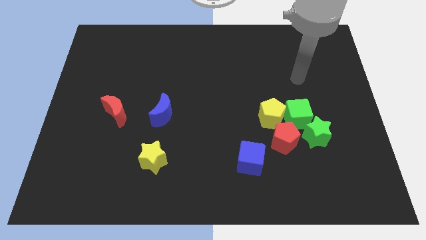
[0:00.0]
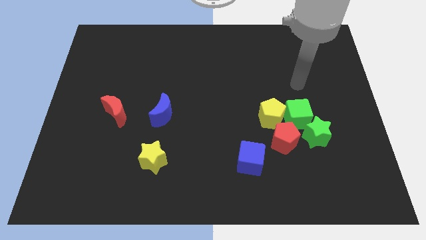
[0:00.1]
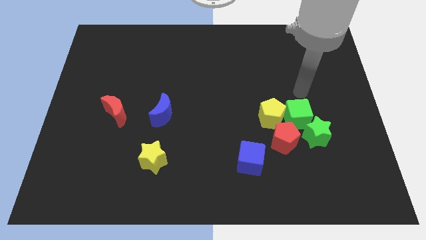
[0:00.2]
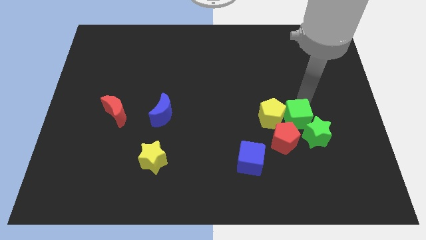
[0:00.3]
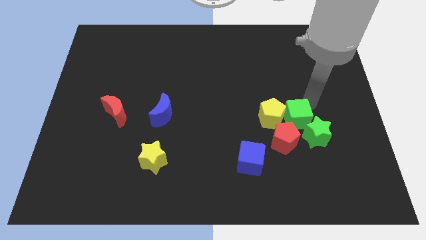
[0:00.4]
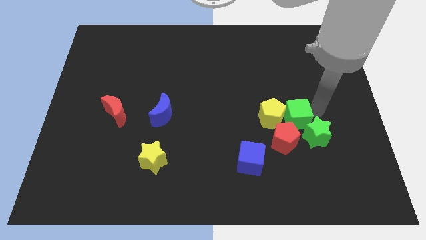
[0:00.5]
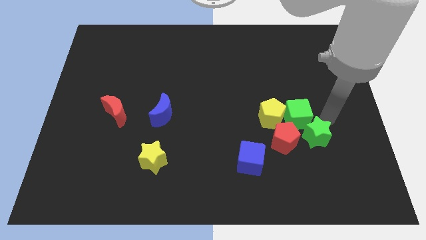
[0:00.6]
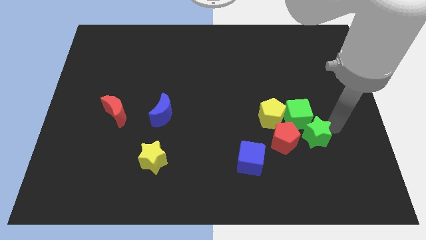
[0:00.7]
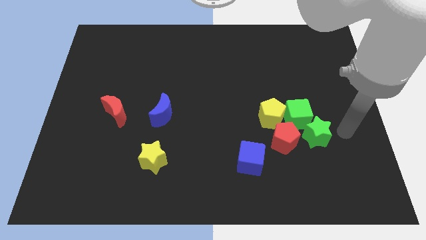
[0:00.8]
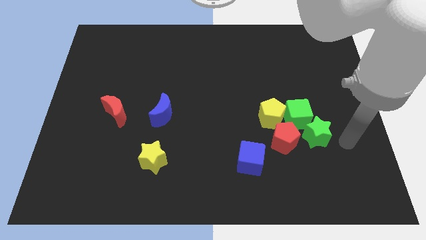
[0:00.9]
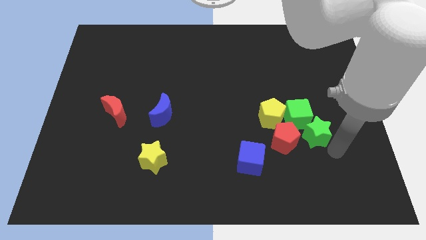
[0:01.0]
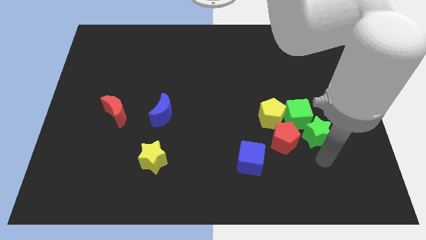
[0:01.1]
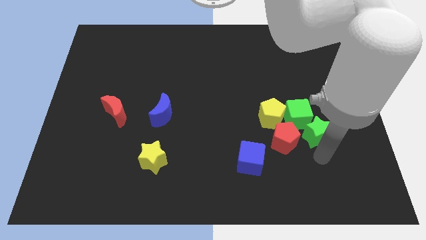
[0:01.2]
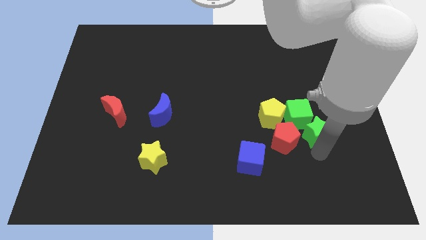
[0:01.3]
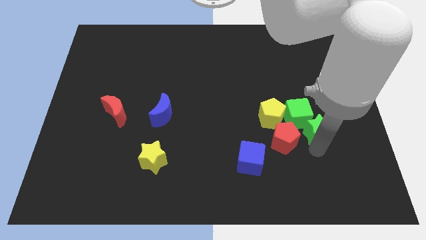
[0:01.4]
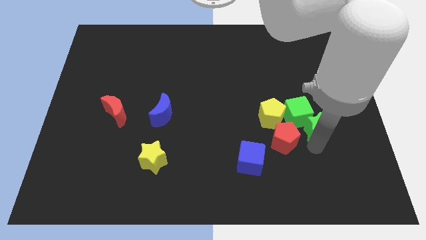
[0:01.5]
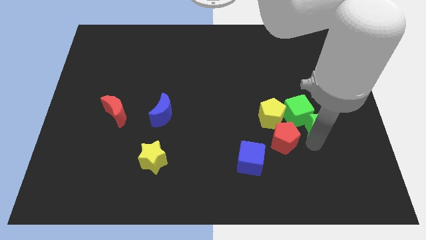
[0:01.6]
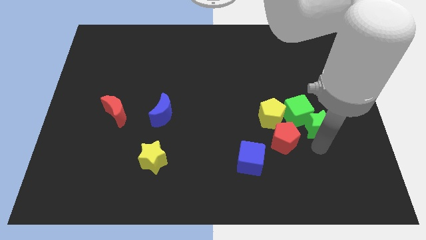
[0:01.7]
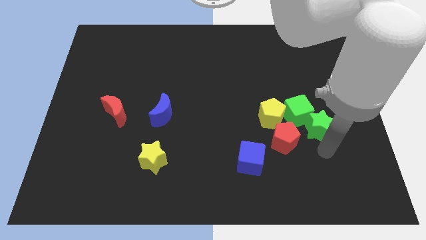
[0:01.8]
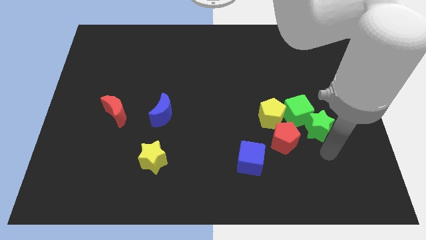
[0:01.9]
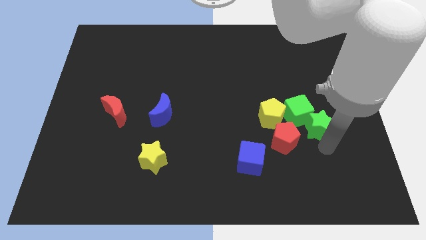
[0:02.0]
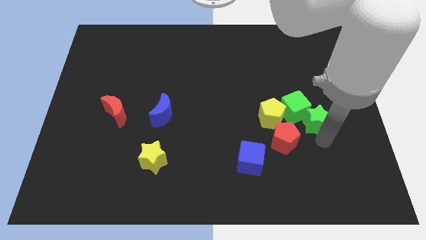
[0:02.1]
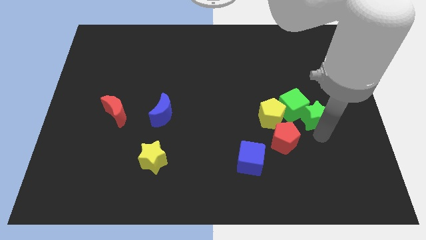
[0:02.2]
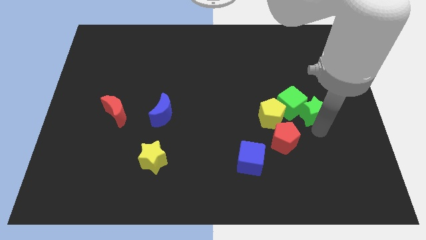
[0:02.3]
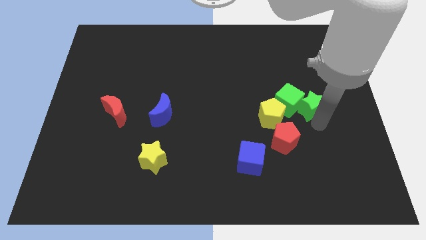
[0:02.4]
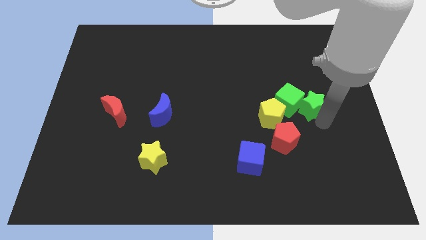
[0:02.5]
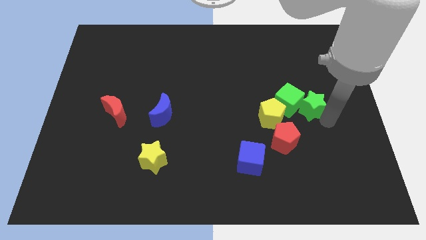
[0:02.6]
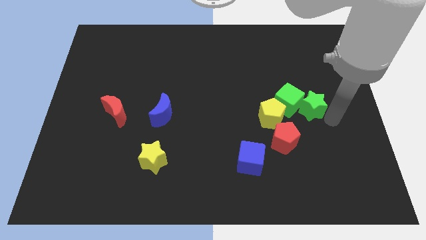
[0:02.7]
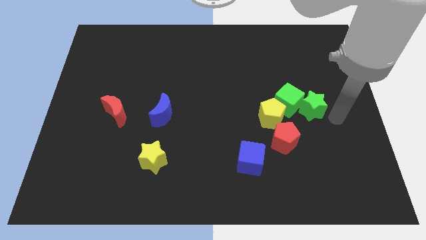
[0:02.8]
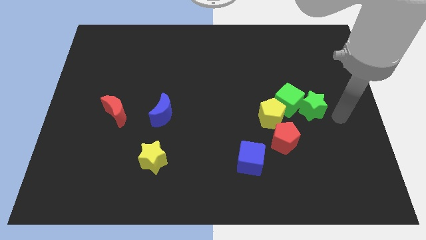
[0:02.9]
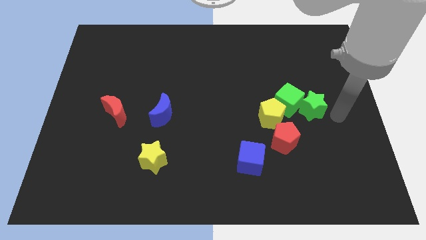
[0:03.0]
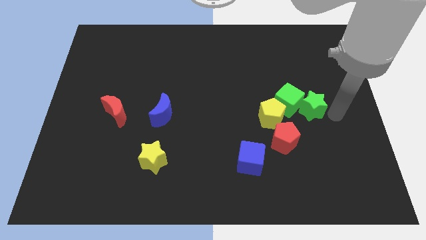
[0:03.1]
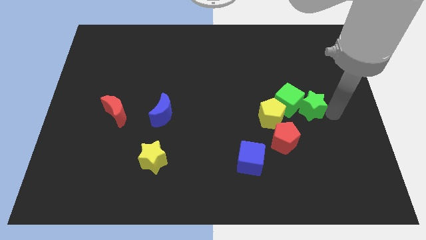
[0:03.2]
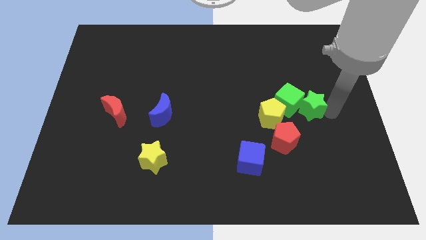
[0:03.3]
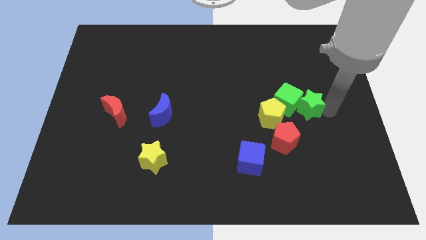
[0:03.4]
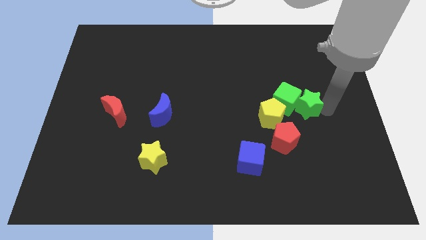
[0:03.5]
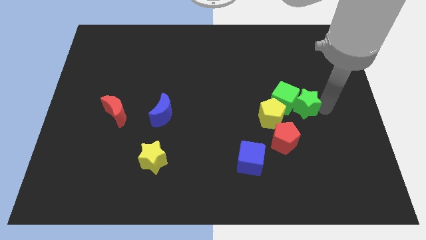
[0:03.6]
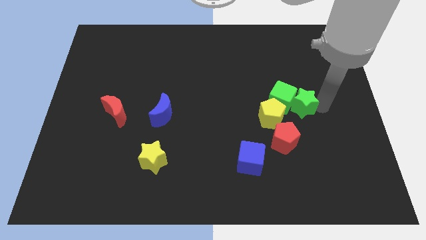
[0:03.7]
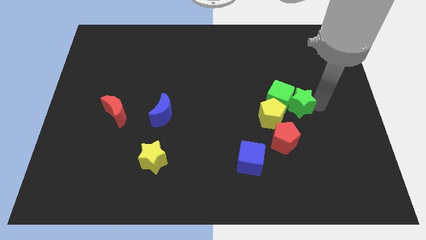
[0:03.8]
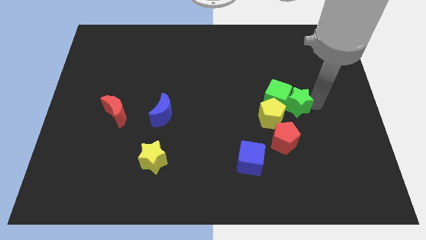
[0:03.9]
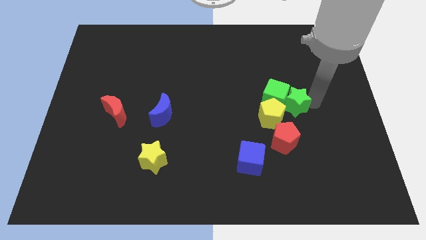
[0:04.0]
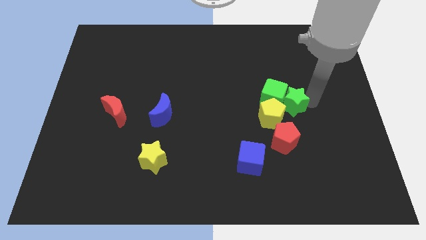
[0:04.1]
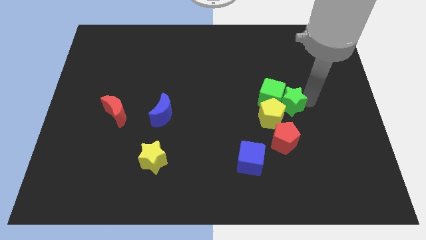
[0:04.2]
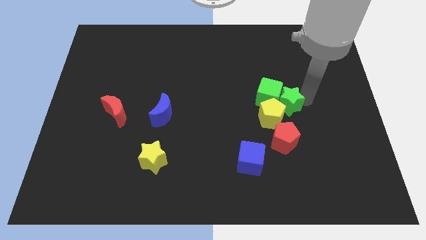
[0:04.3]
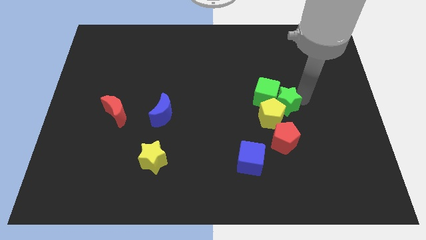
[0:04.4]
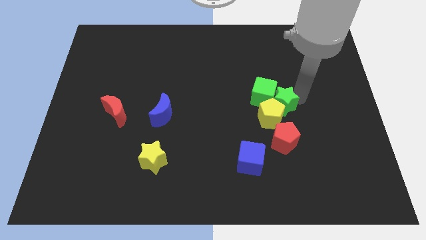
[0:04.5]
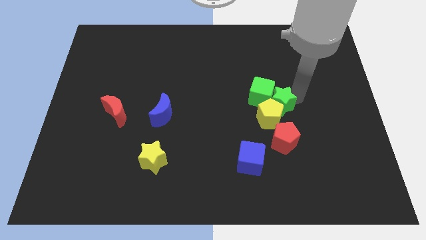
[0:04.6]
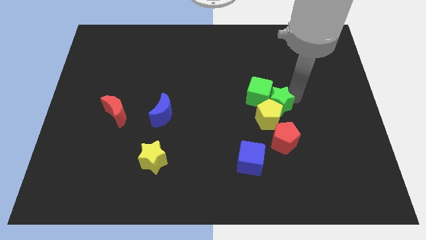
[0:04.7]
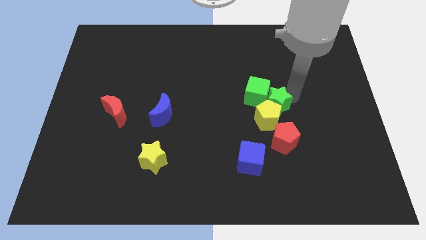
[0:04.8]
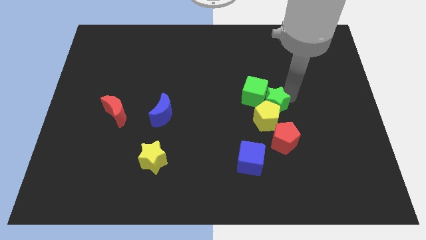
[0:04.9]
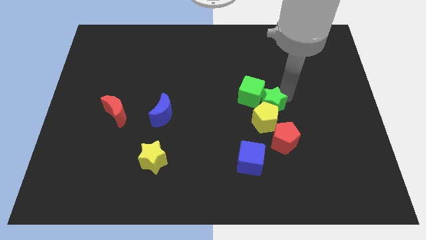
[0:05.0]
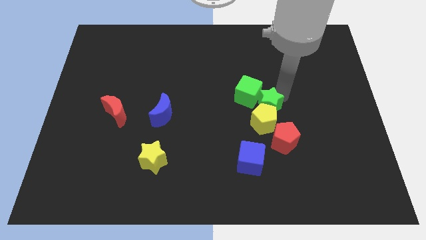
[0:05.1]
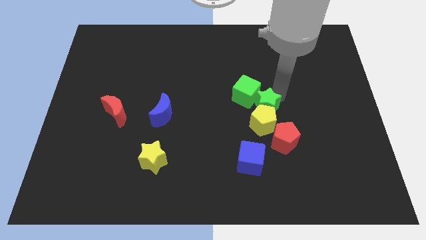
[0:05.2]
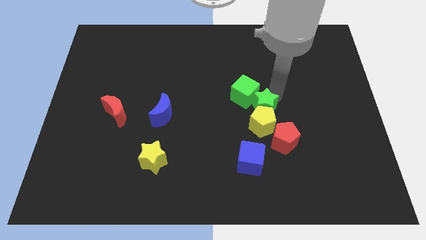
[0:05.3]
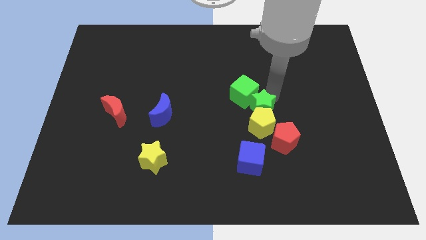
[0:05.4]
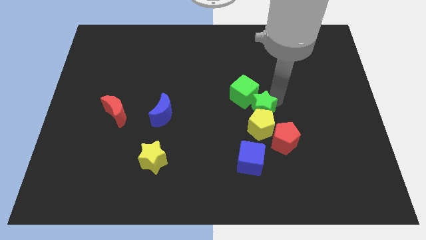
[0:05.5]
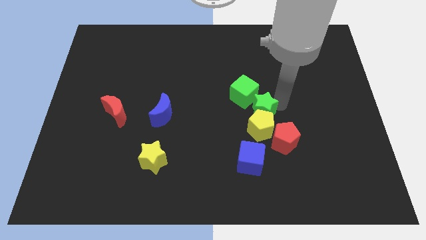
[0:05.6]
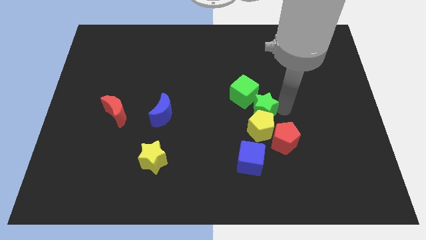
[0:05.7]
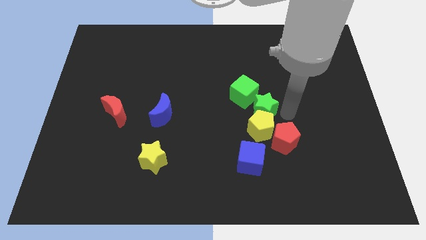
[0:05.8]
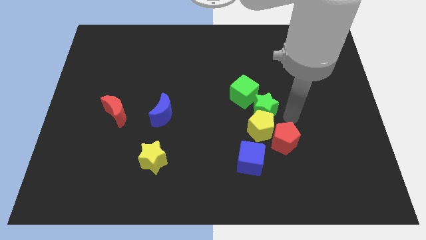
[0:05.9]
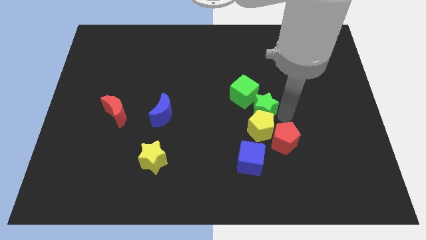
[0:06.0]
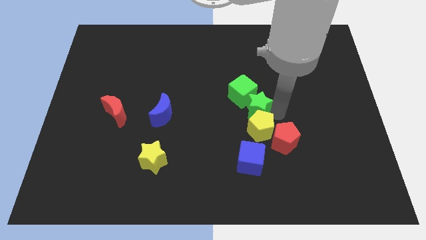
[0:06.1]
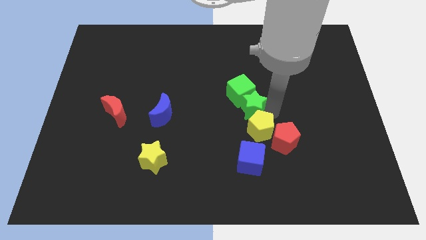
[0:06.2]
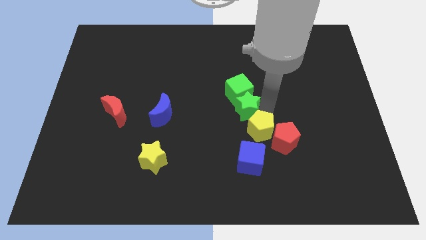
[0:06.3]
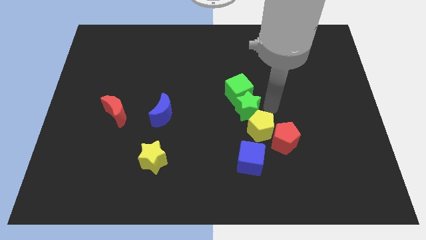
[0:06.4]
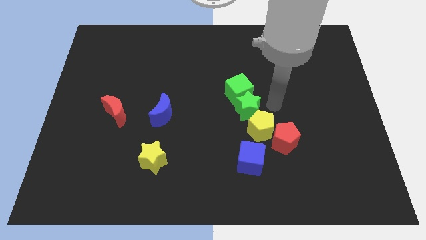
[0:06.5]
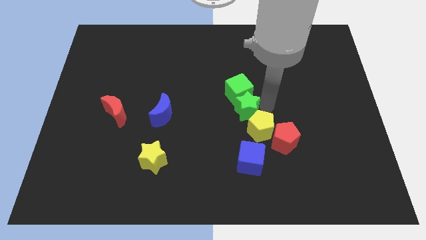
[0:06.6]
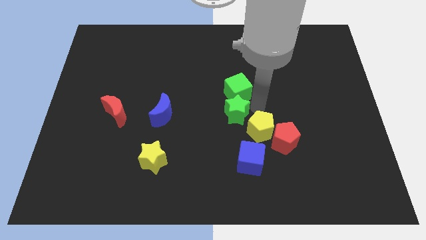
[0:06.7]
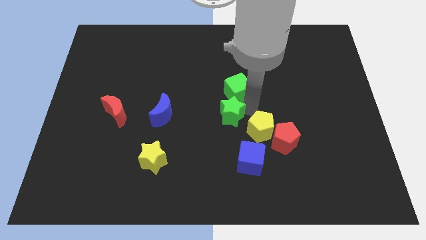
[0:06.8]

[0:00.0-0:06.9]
push the green star just right of the blue moon
